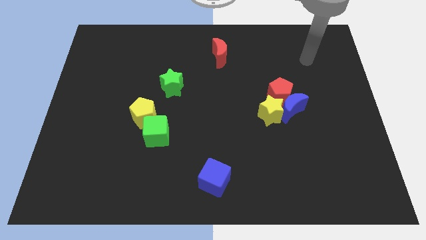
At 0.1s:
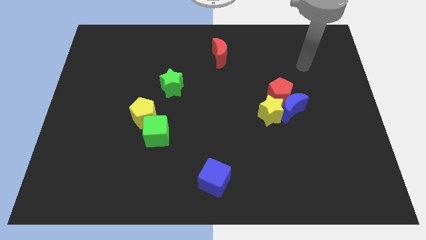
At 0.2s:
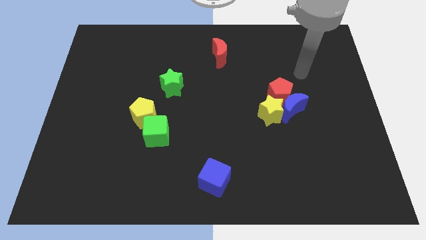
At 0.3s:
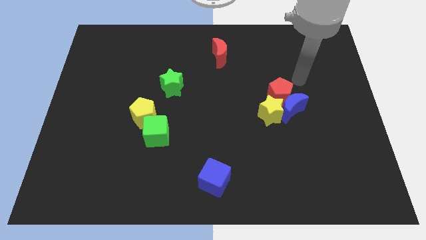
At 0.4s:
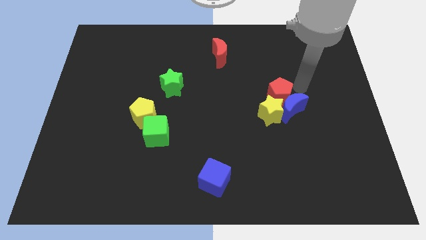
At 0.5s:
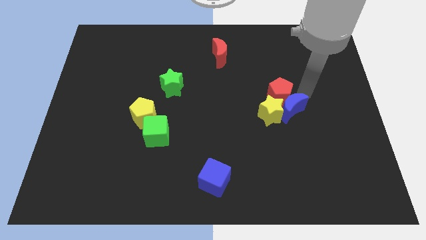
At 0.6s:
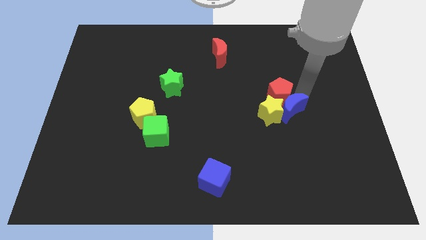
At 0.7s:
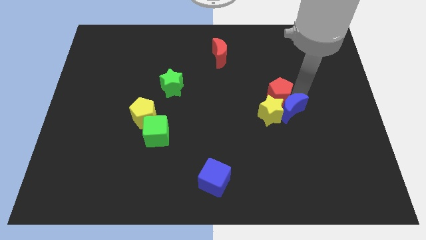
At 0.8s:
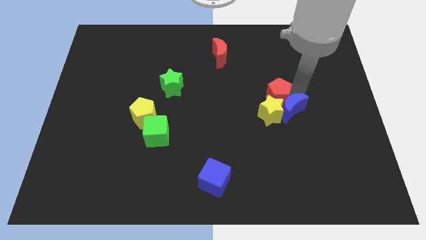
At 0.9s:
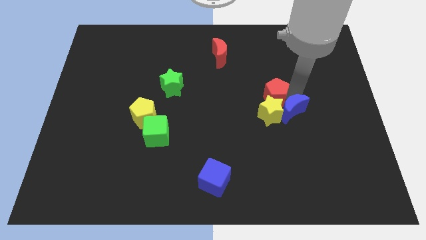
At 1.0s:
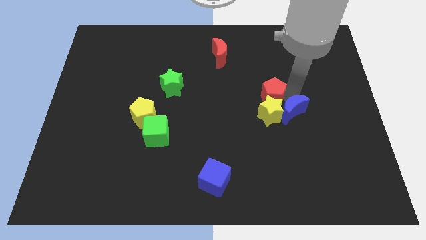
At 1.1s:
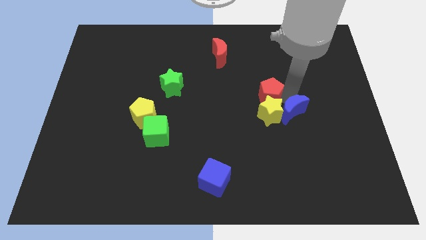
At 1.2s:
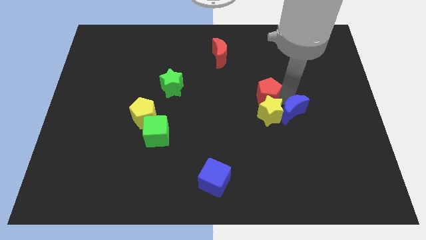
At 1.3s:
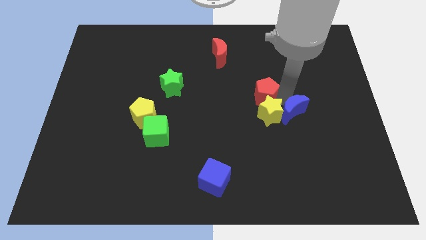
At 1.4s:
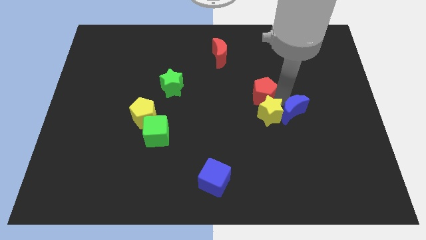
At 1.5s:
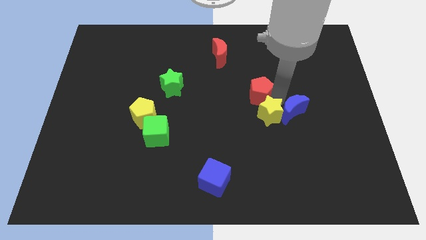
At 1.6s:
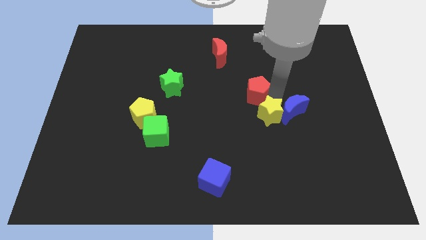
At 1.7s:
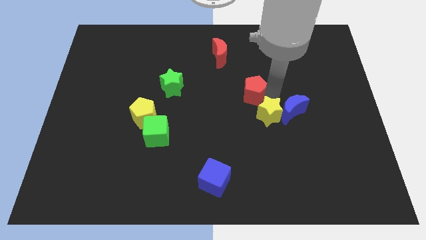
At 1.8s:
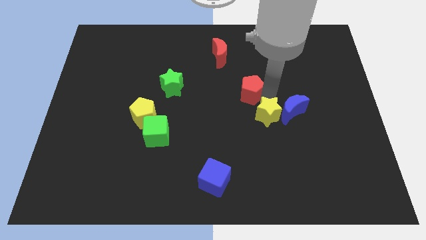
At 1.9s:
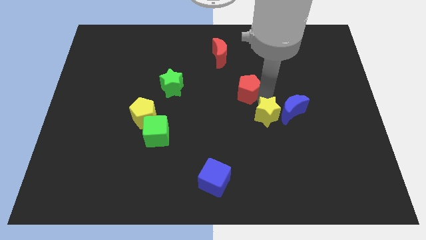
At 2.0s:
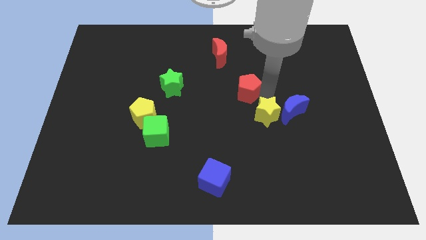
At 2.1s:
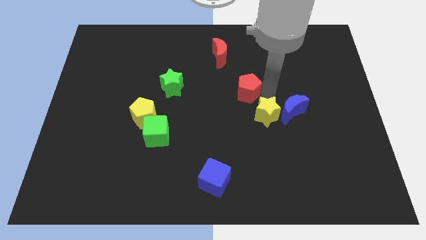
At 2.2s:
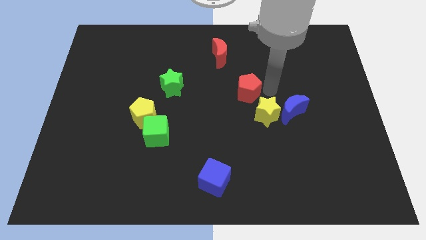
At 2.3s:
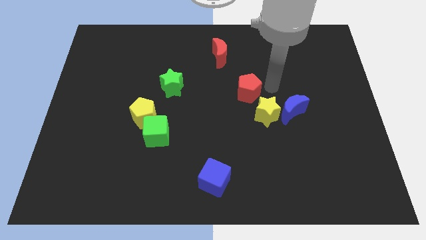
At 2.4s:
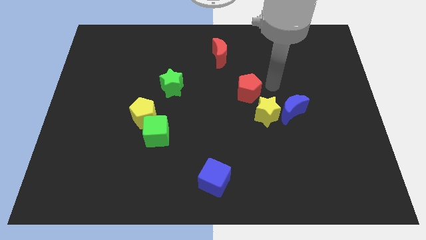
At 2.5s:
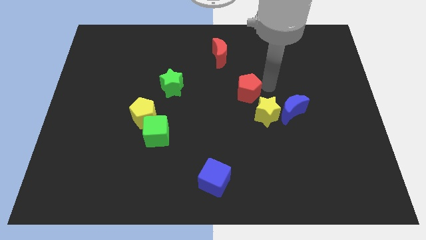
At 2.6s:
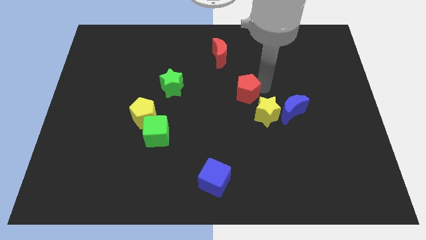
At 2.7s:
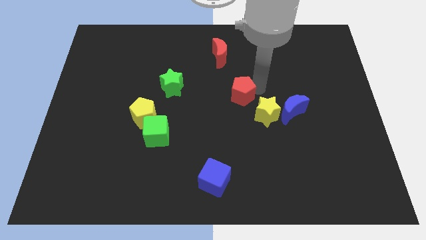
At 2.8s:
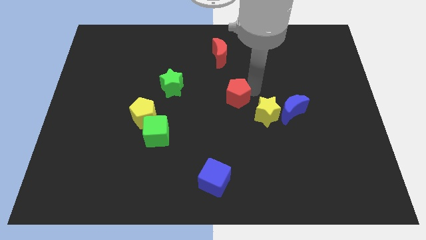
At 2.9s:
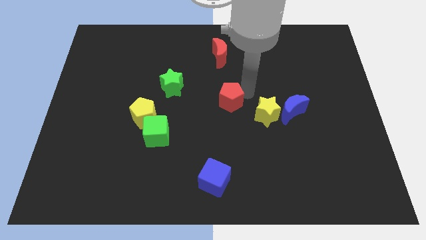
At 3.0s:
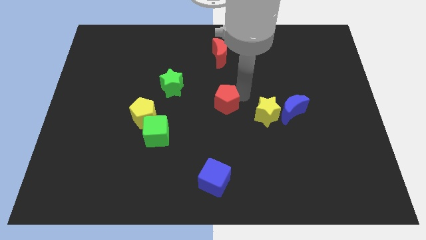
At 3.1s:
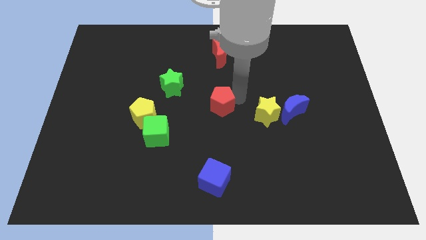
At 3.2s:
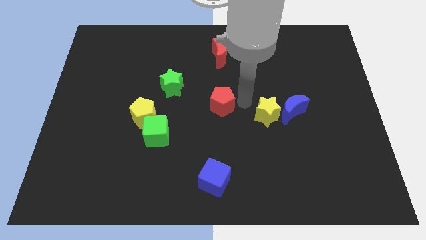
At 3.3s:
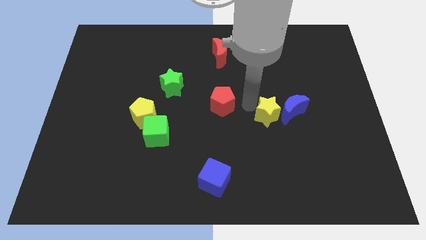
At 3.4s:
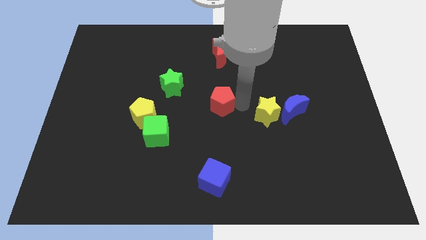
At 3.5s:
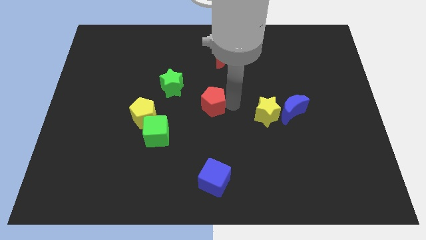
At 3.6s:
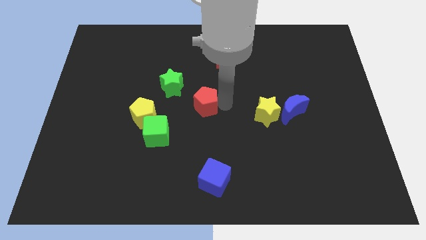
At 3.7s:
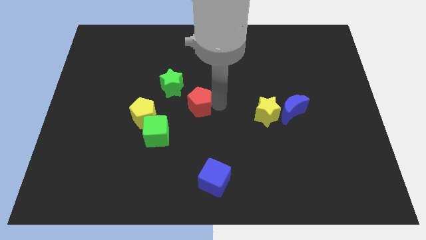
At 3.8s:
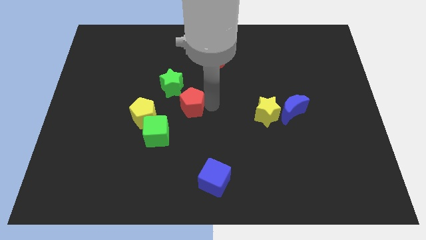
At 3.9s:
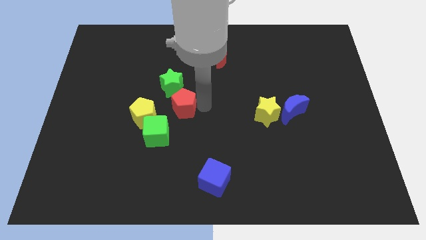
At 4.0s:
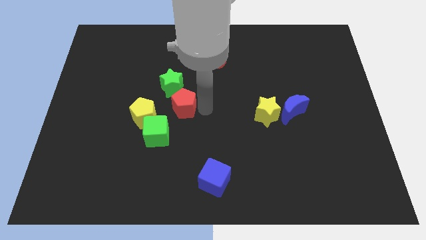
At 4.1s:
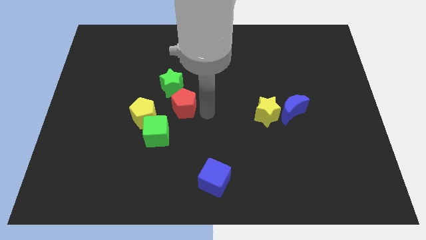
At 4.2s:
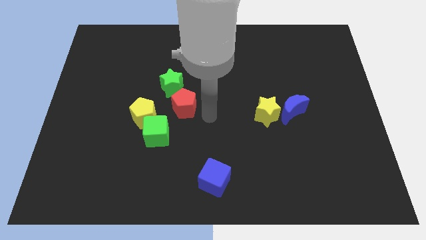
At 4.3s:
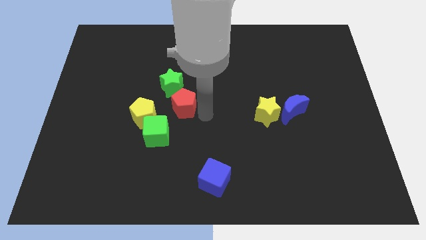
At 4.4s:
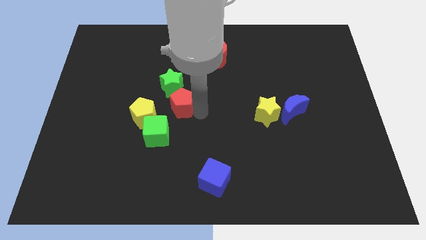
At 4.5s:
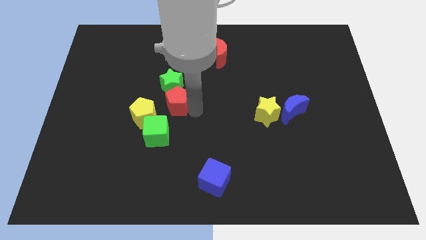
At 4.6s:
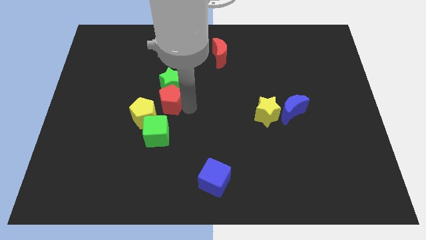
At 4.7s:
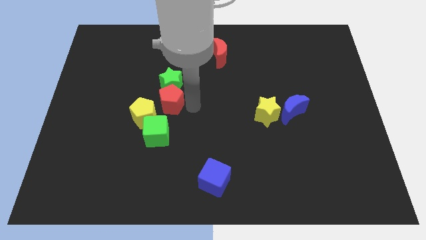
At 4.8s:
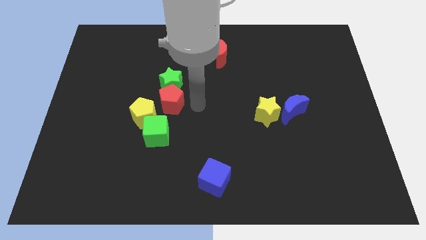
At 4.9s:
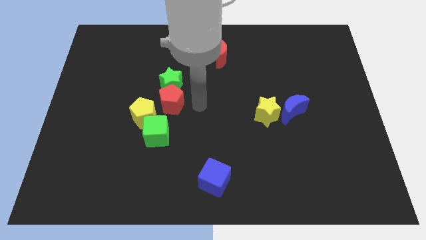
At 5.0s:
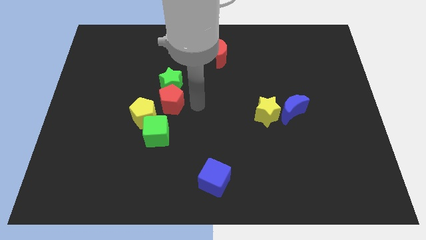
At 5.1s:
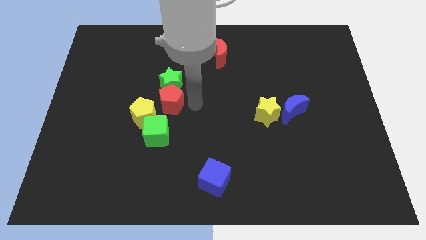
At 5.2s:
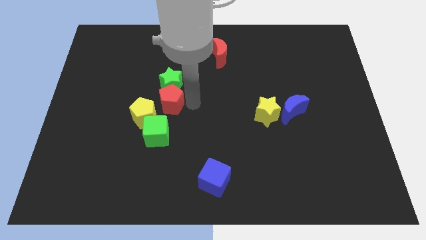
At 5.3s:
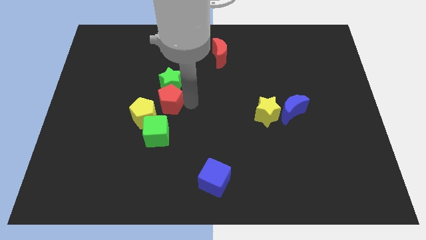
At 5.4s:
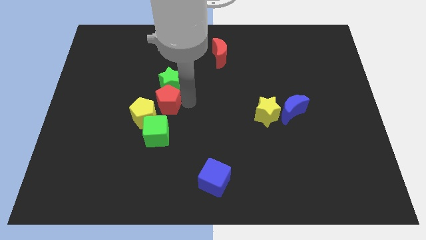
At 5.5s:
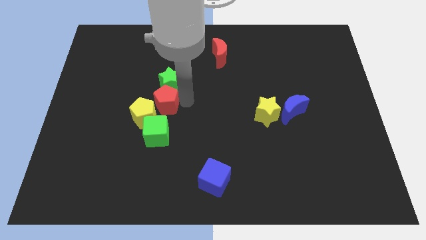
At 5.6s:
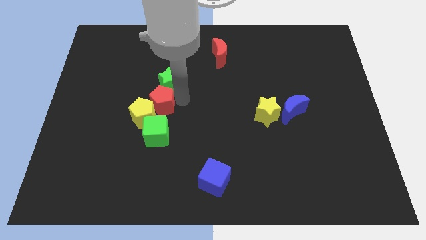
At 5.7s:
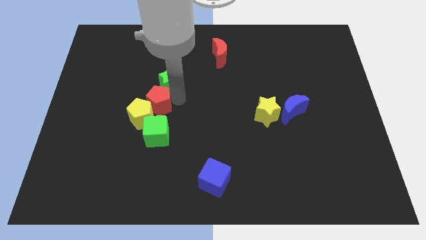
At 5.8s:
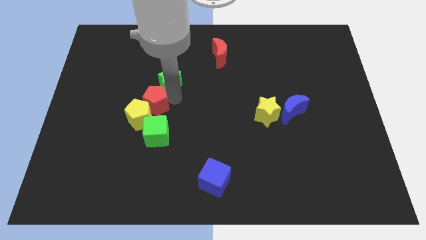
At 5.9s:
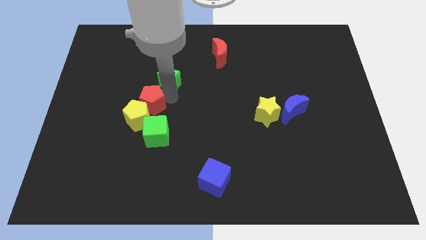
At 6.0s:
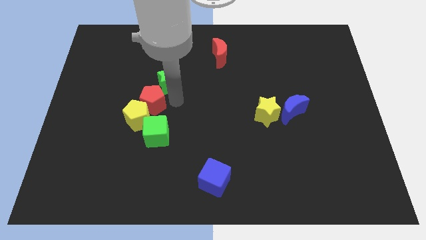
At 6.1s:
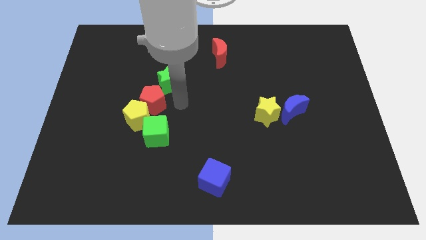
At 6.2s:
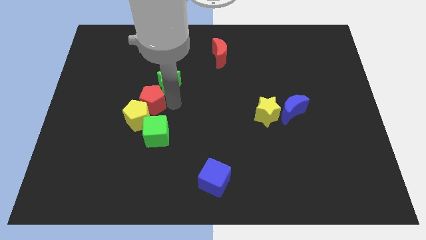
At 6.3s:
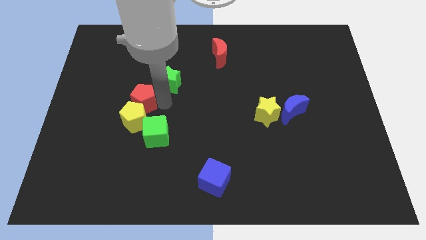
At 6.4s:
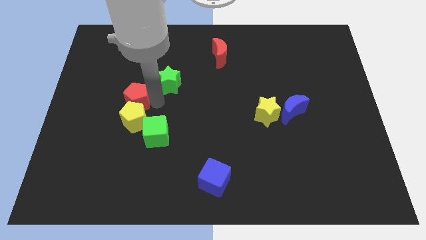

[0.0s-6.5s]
slide the red pentagon to the top left of the yellow pentagon
